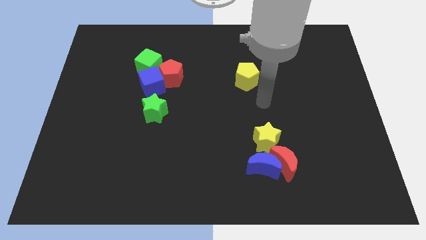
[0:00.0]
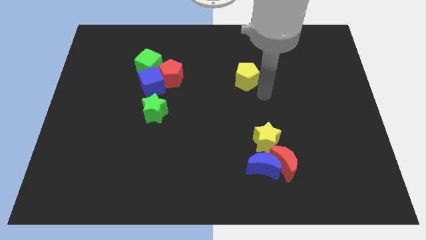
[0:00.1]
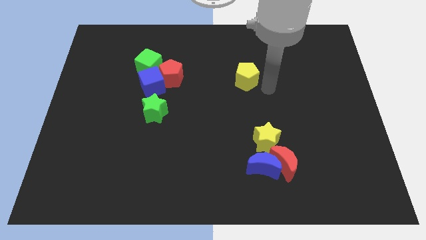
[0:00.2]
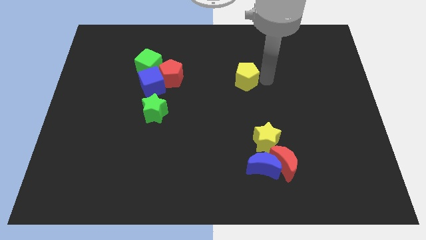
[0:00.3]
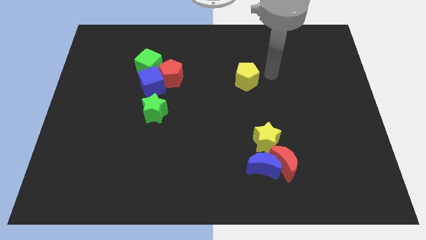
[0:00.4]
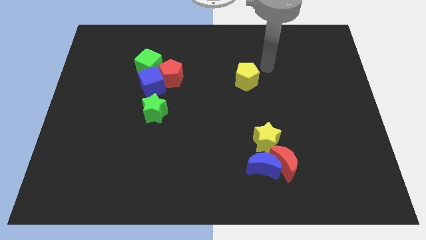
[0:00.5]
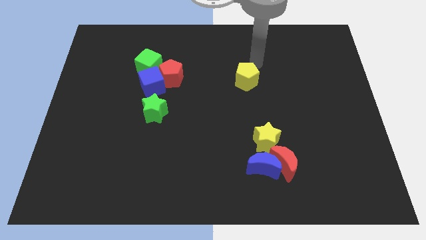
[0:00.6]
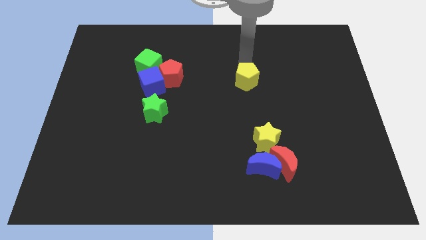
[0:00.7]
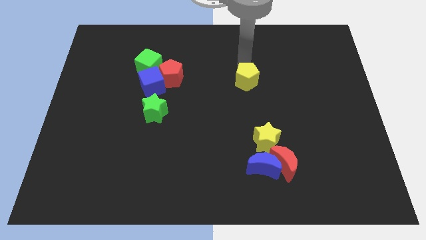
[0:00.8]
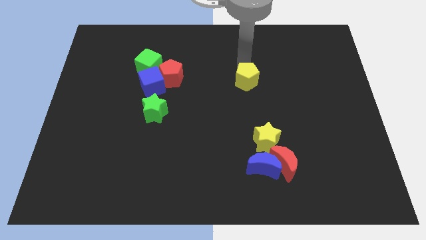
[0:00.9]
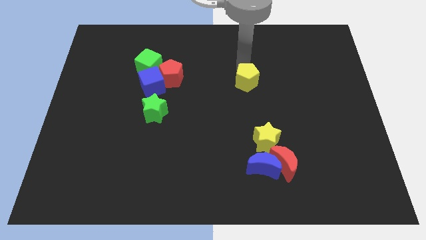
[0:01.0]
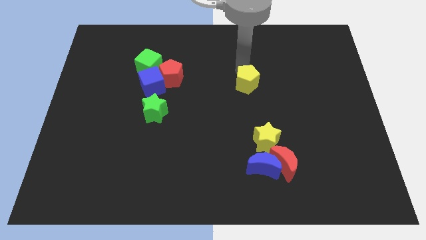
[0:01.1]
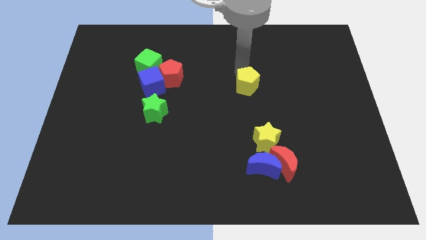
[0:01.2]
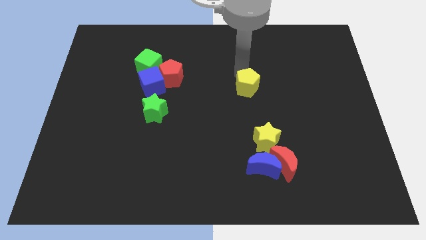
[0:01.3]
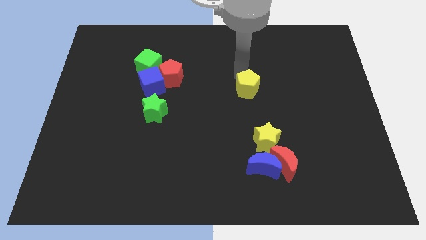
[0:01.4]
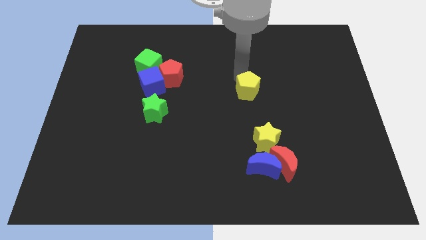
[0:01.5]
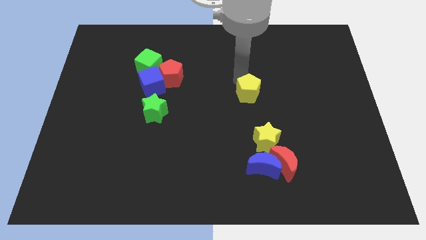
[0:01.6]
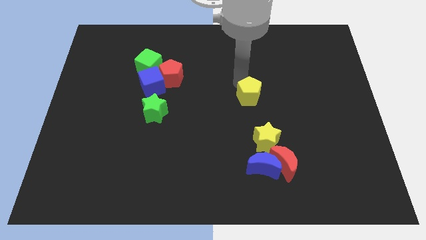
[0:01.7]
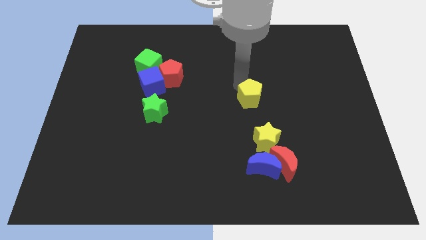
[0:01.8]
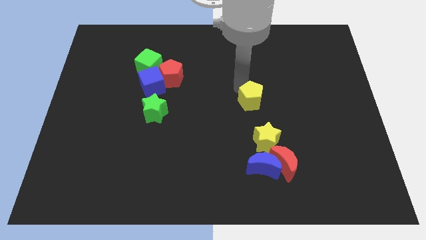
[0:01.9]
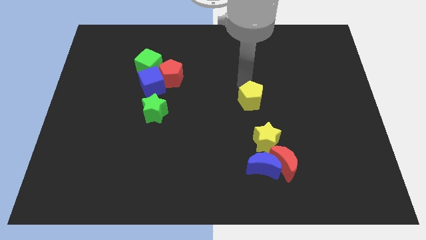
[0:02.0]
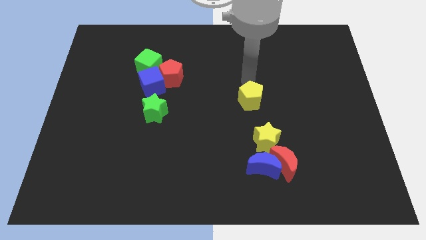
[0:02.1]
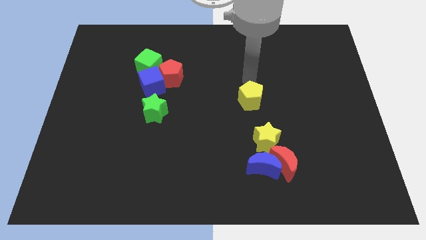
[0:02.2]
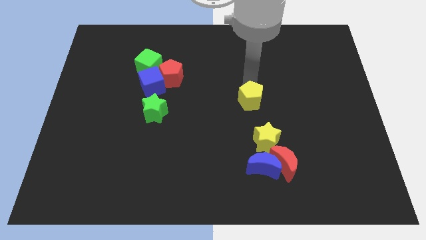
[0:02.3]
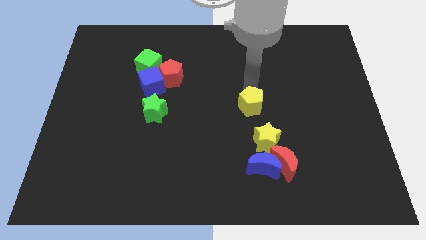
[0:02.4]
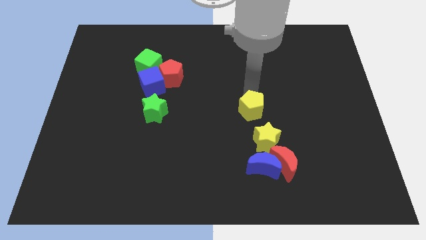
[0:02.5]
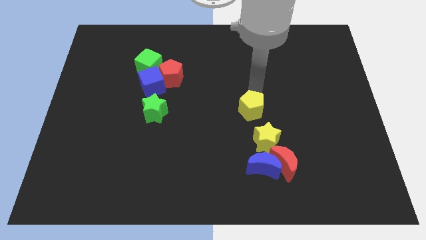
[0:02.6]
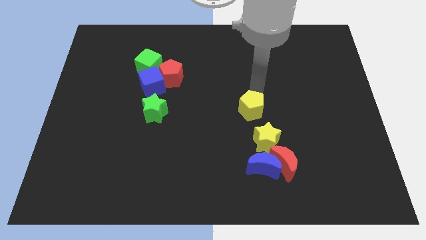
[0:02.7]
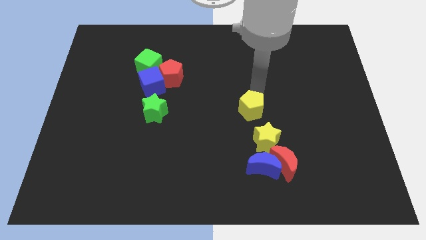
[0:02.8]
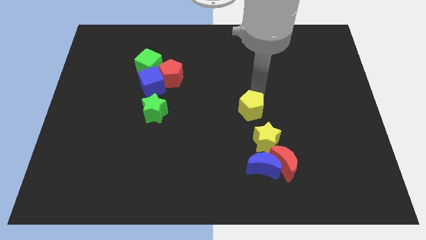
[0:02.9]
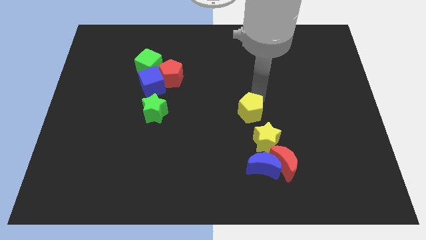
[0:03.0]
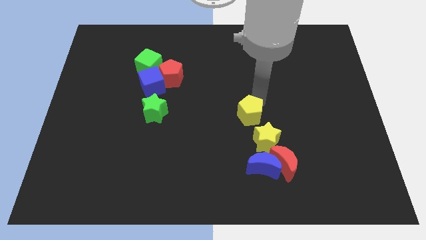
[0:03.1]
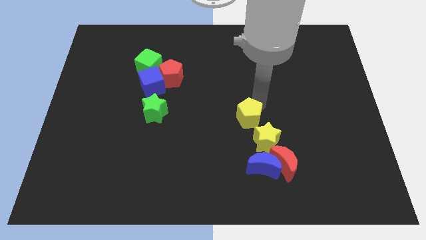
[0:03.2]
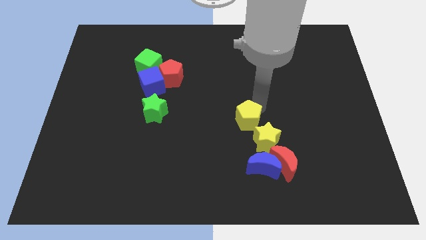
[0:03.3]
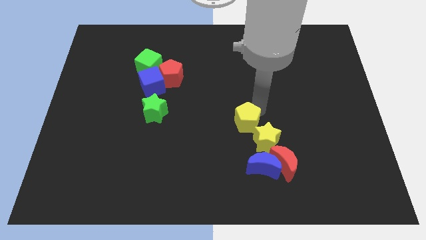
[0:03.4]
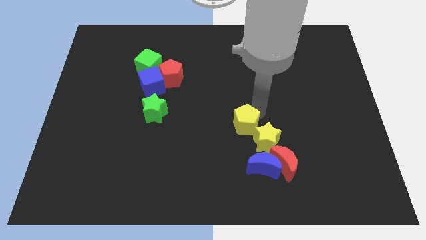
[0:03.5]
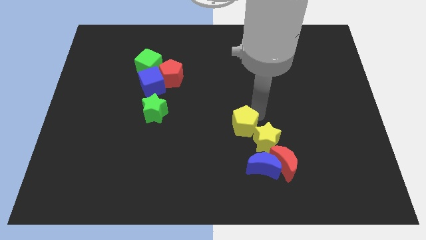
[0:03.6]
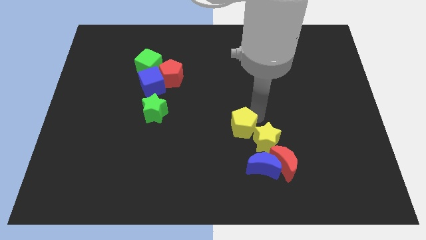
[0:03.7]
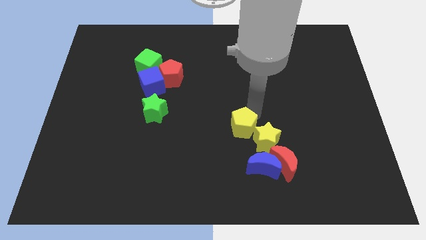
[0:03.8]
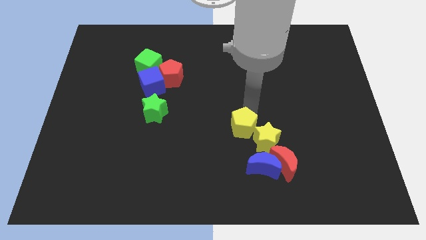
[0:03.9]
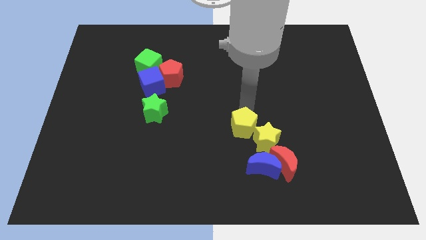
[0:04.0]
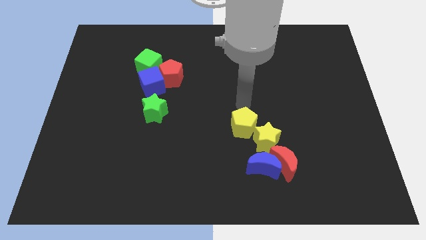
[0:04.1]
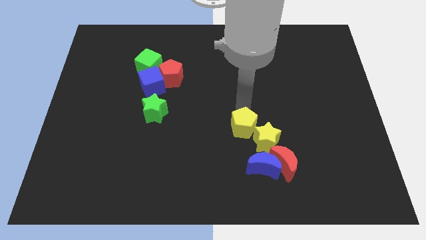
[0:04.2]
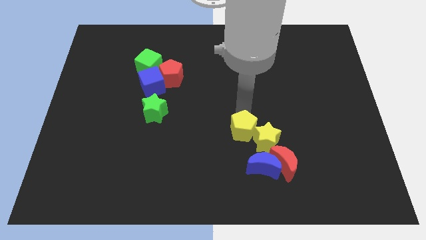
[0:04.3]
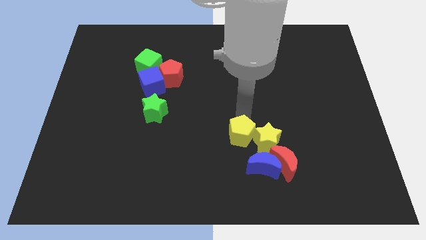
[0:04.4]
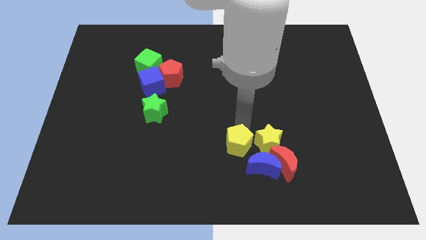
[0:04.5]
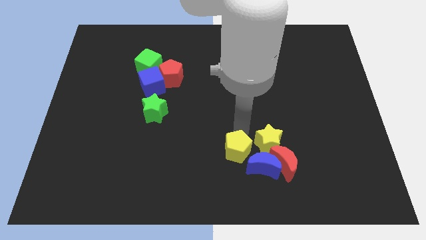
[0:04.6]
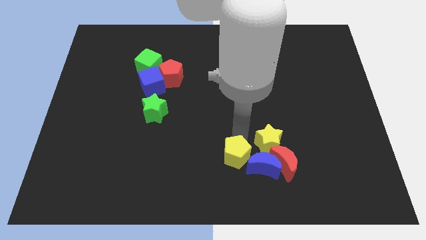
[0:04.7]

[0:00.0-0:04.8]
move the yellow pentagon to the bottom

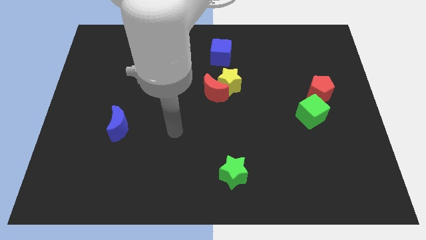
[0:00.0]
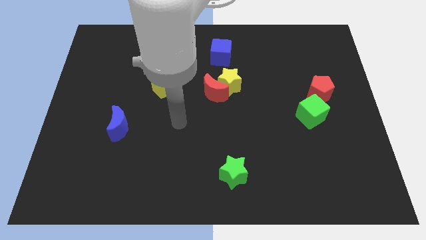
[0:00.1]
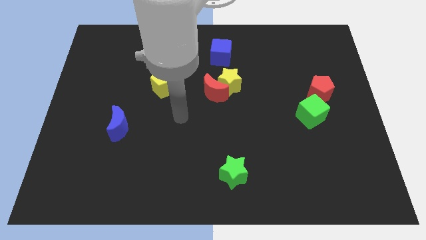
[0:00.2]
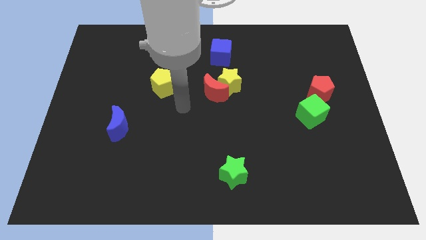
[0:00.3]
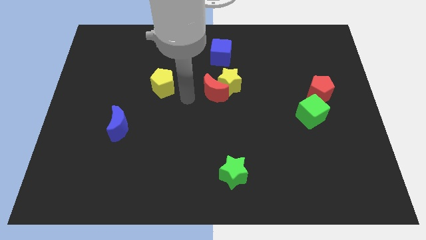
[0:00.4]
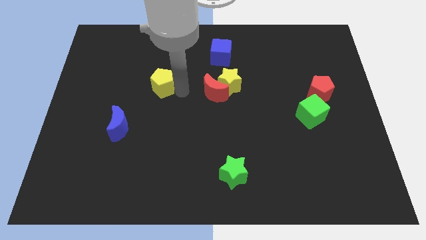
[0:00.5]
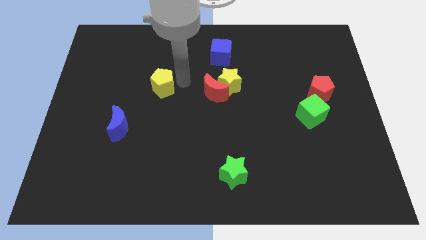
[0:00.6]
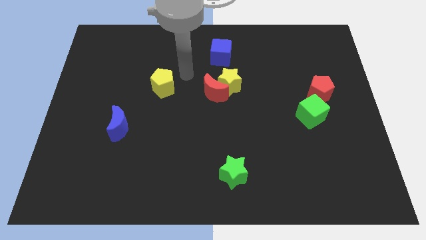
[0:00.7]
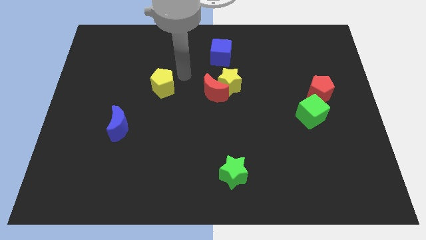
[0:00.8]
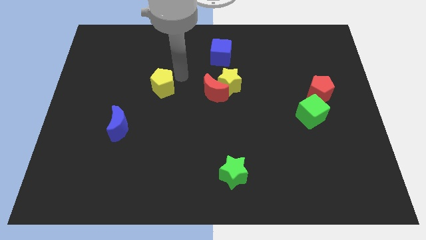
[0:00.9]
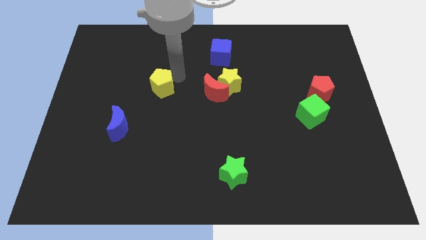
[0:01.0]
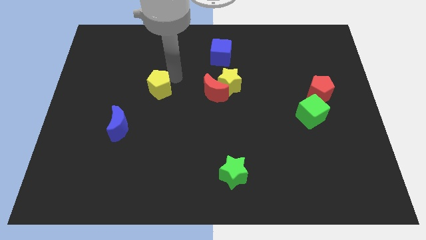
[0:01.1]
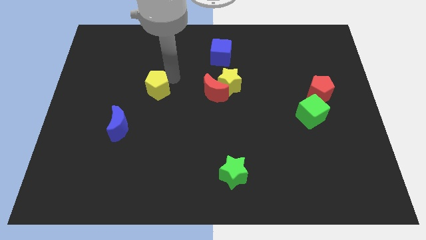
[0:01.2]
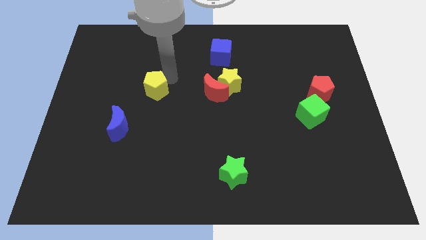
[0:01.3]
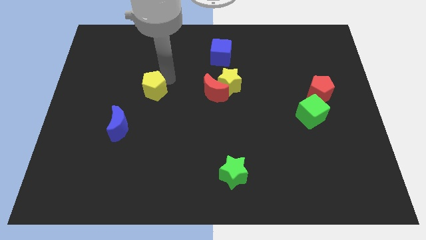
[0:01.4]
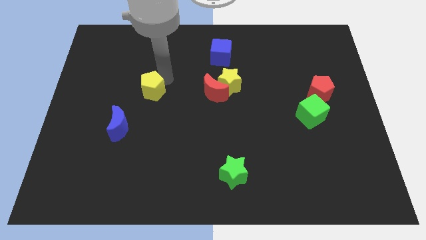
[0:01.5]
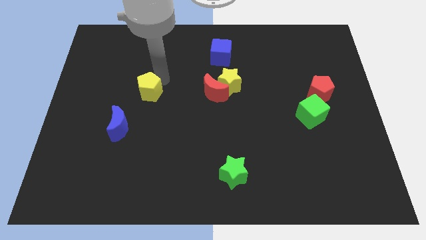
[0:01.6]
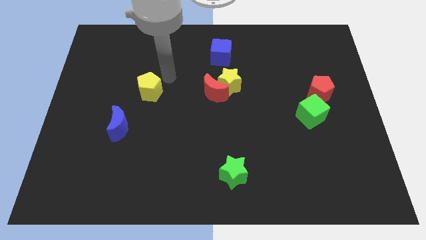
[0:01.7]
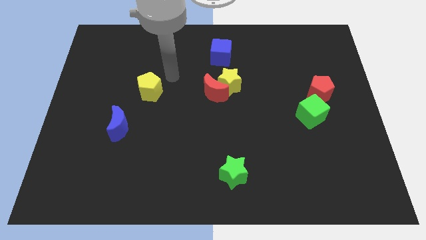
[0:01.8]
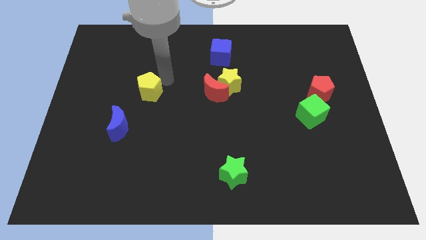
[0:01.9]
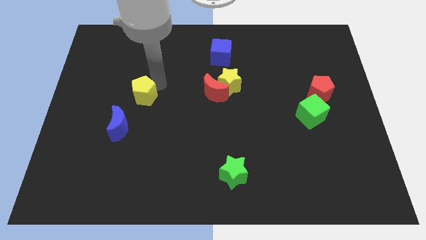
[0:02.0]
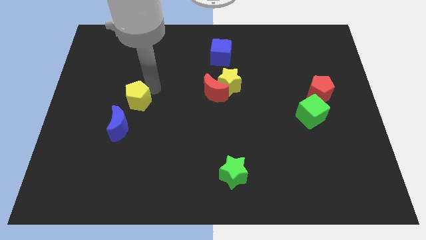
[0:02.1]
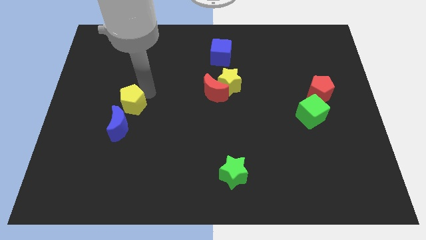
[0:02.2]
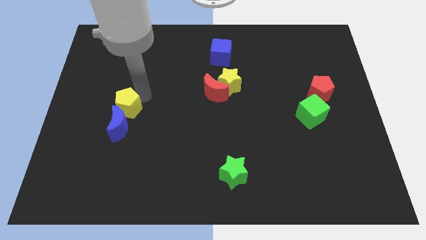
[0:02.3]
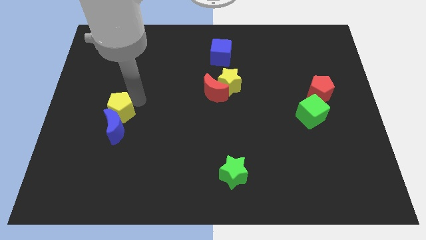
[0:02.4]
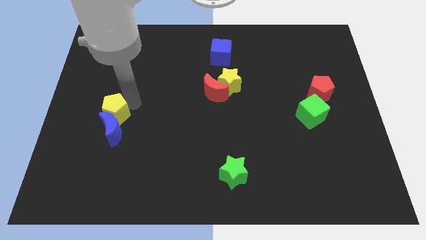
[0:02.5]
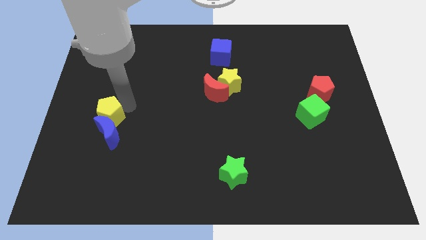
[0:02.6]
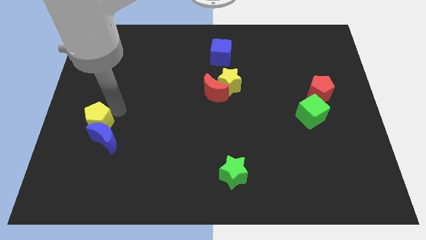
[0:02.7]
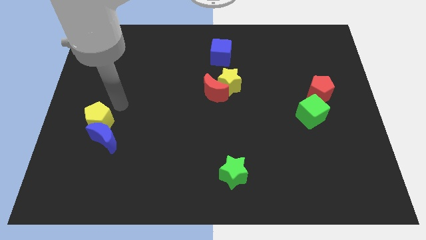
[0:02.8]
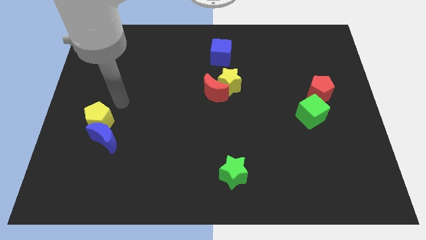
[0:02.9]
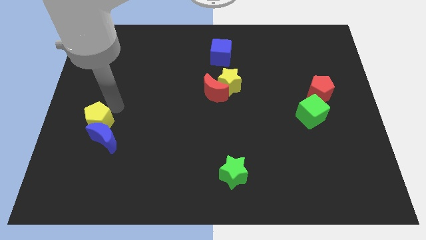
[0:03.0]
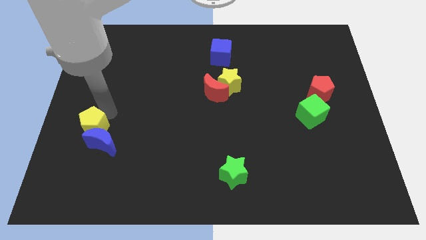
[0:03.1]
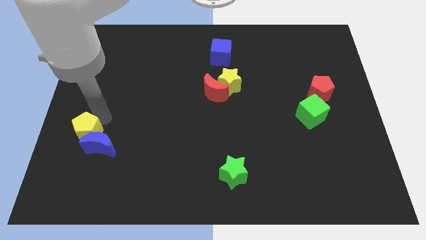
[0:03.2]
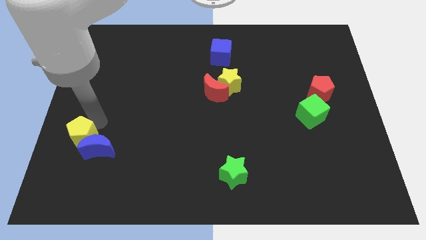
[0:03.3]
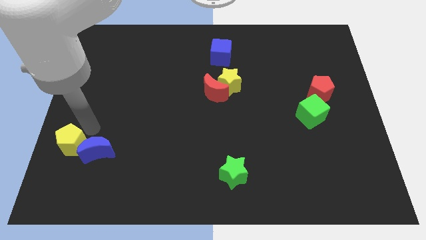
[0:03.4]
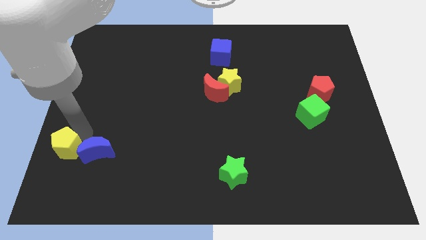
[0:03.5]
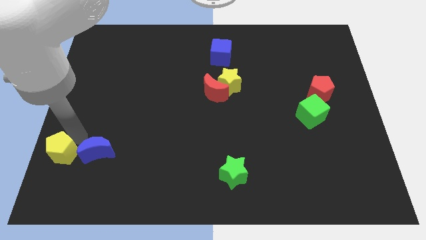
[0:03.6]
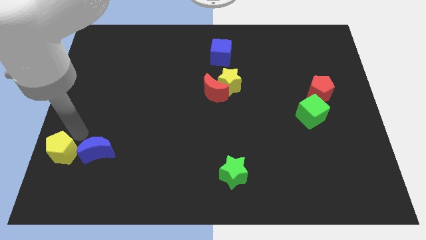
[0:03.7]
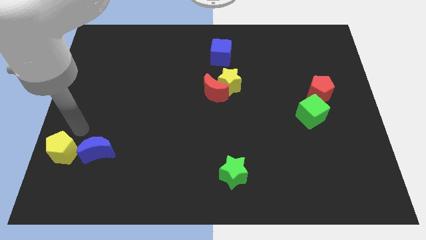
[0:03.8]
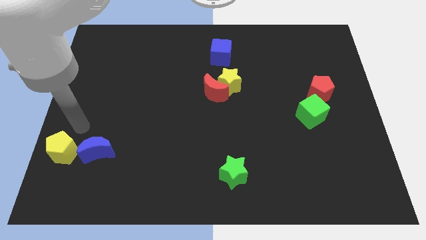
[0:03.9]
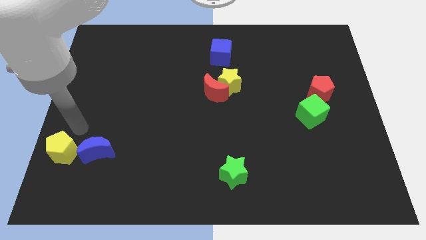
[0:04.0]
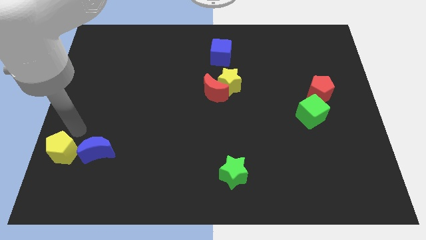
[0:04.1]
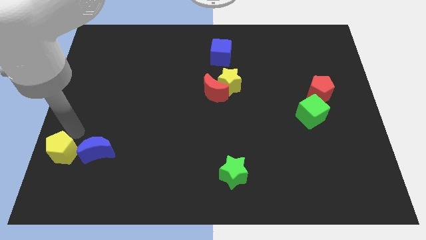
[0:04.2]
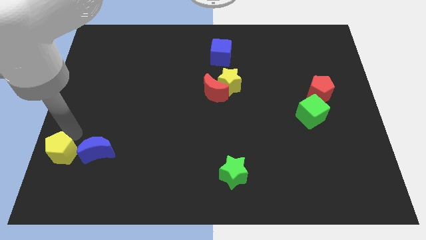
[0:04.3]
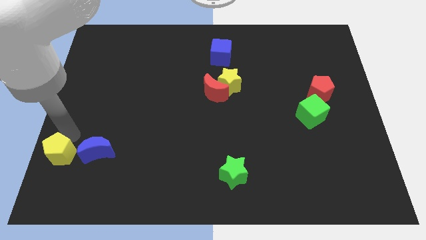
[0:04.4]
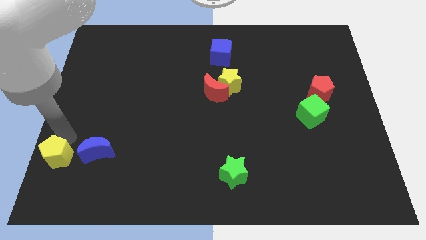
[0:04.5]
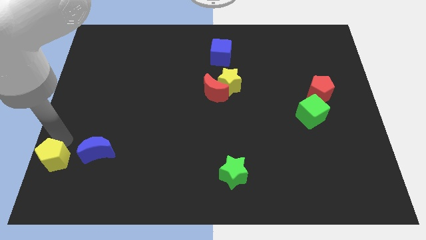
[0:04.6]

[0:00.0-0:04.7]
put the yellow pentagon to the lower left corner
